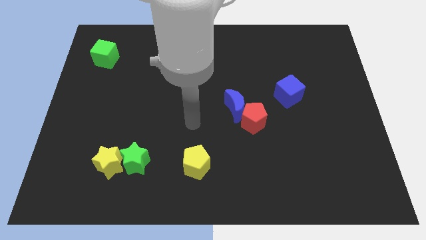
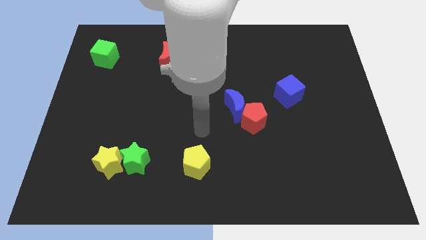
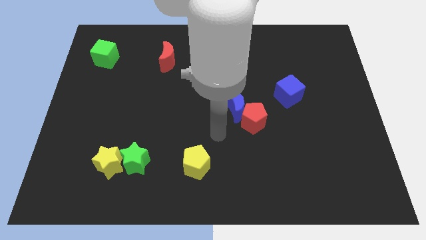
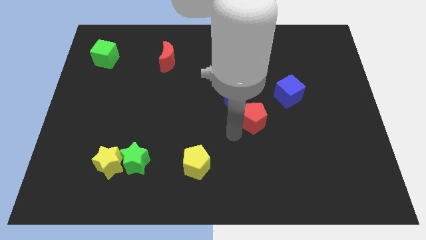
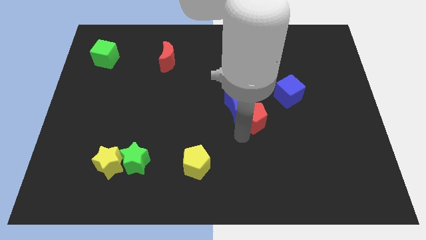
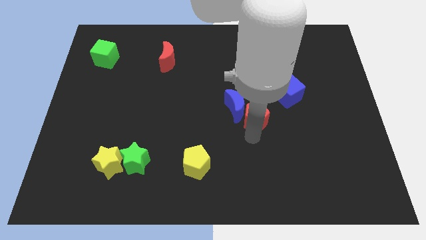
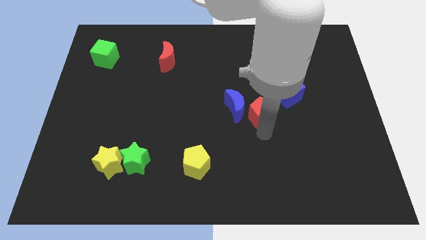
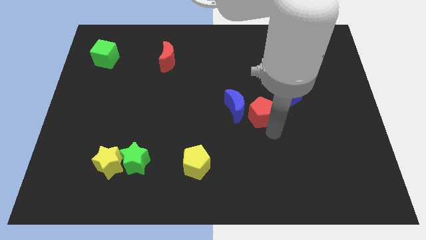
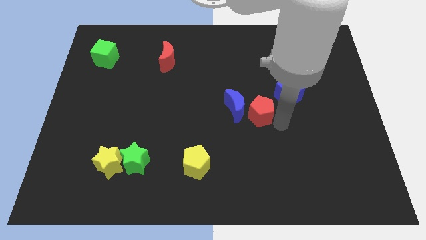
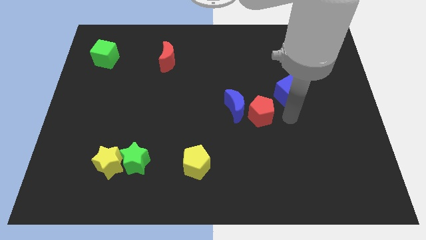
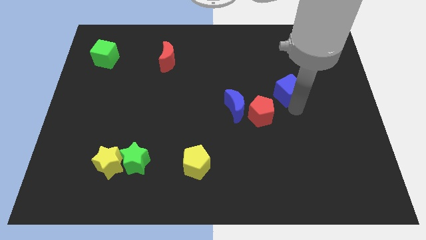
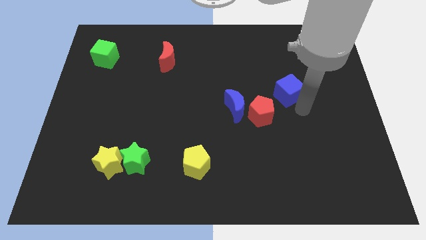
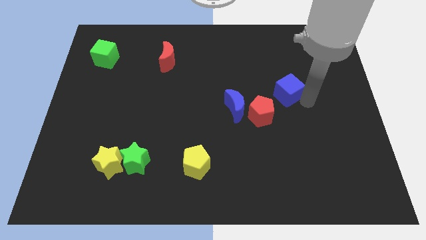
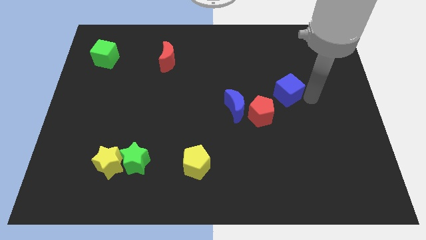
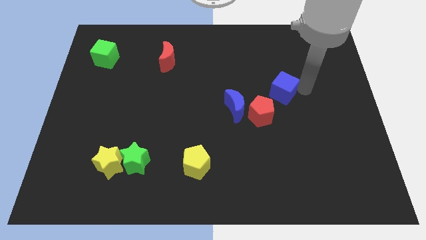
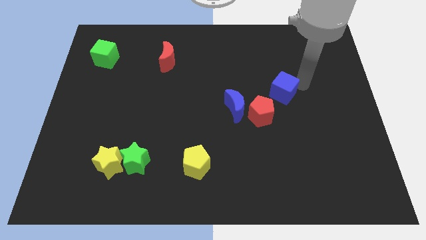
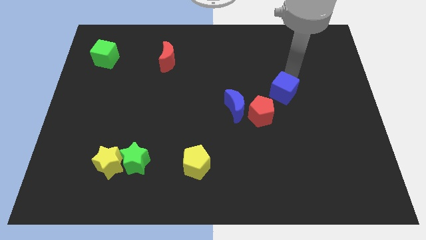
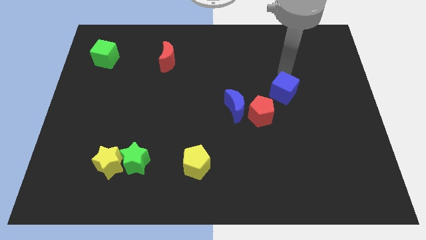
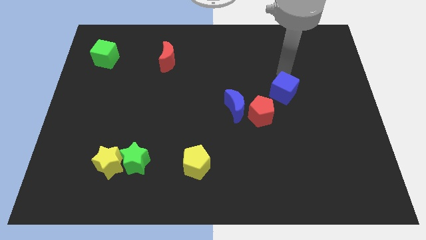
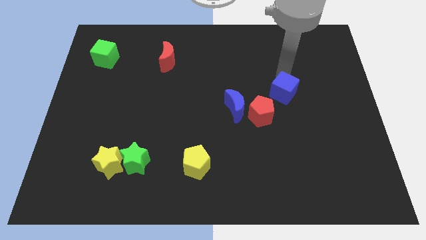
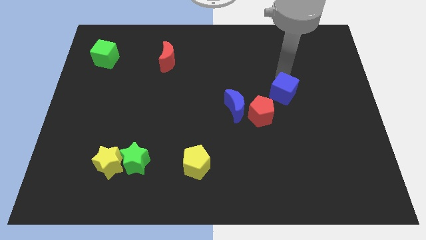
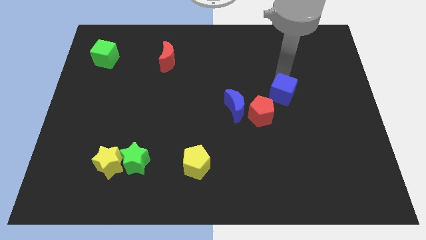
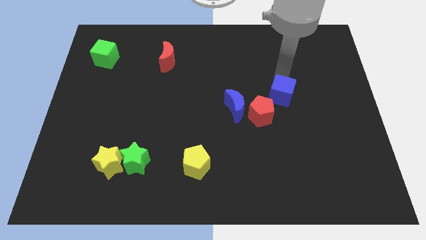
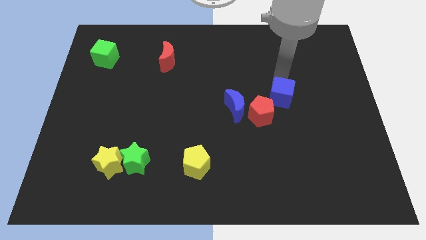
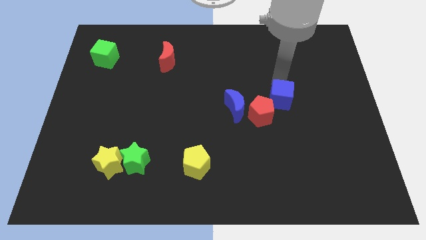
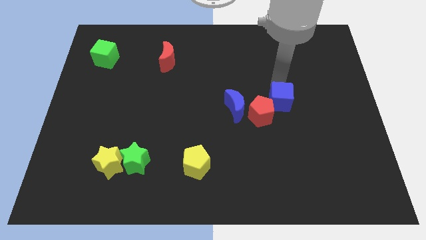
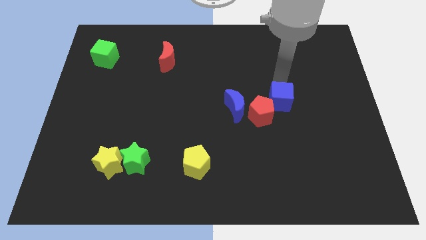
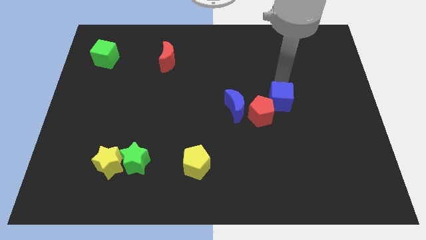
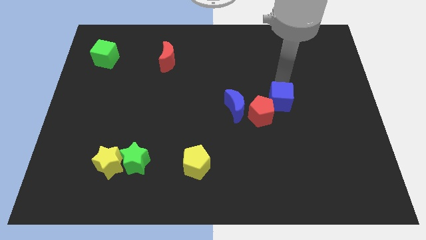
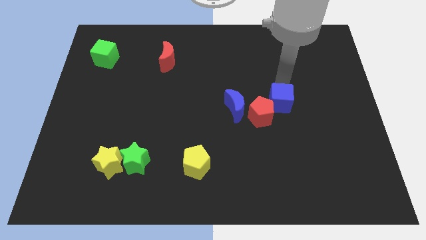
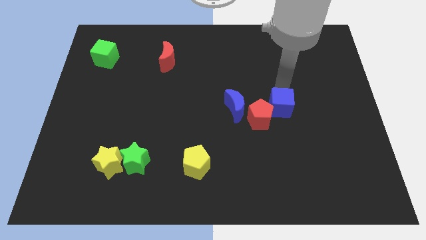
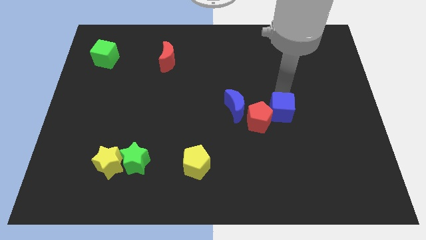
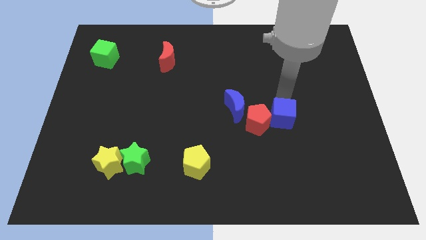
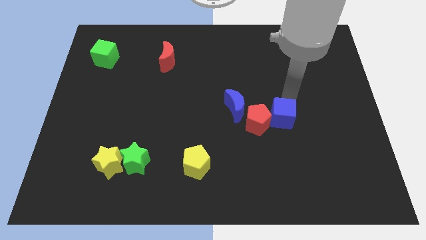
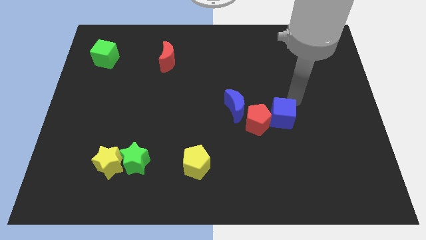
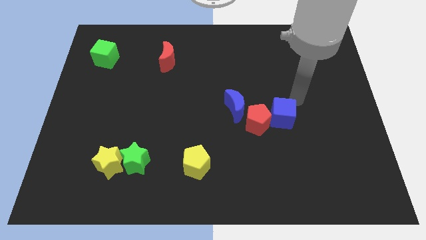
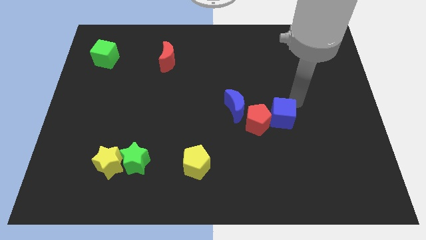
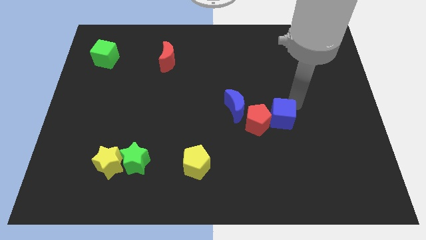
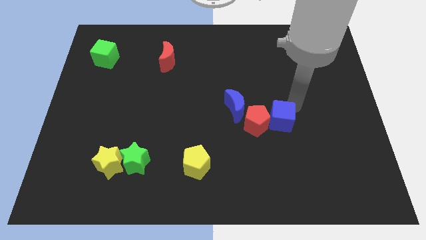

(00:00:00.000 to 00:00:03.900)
push the blue cube downwards and then to the left somewhat

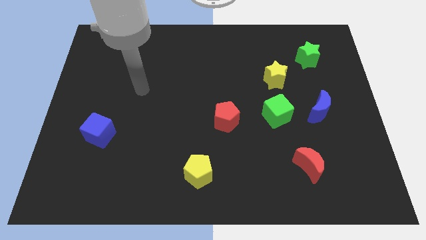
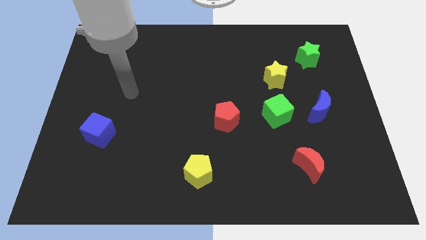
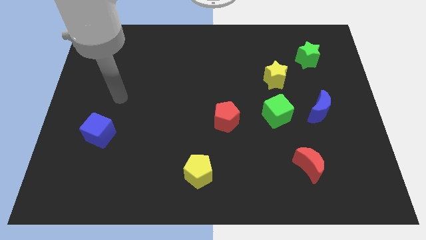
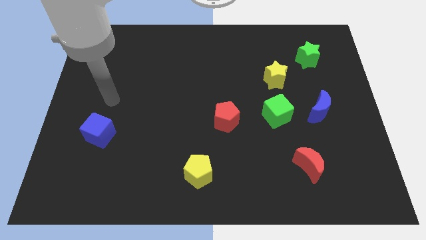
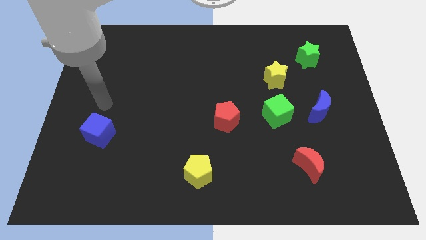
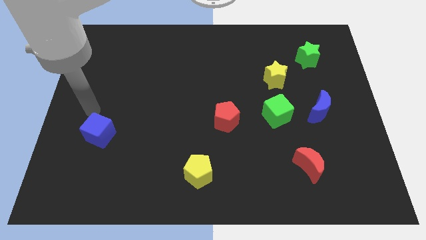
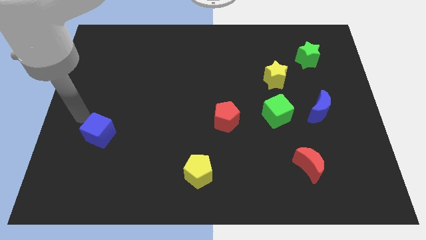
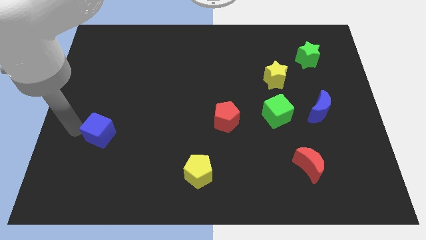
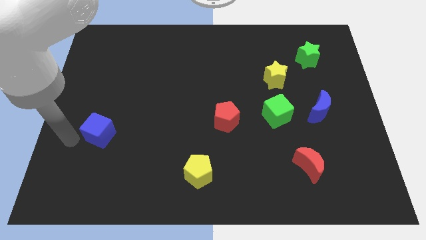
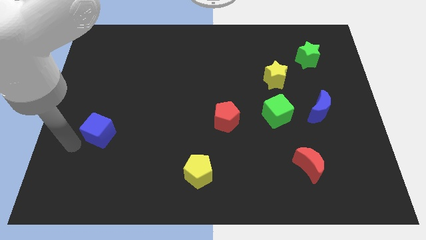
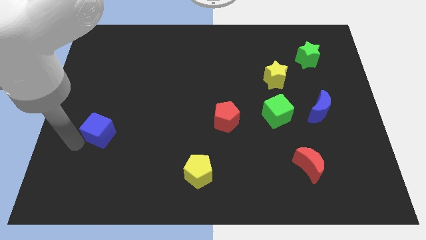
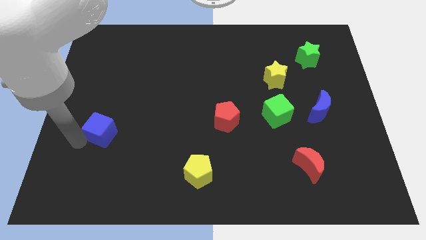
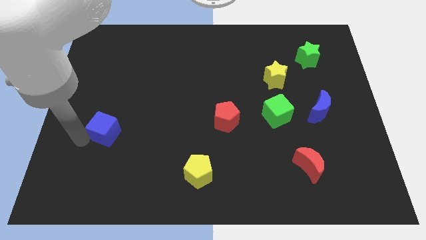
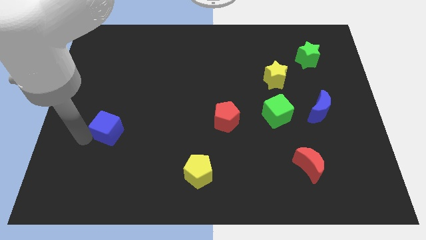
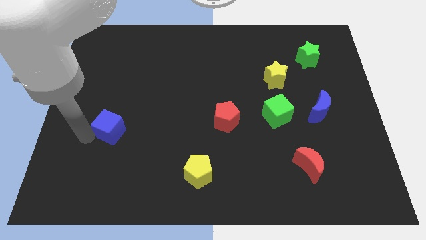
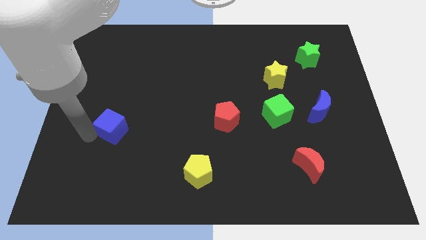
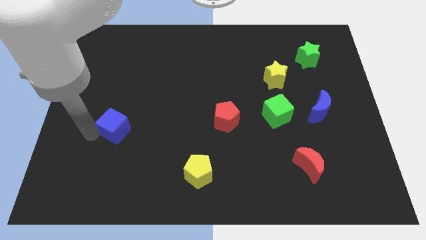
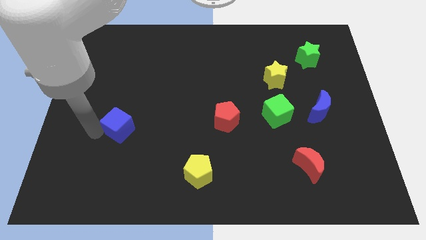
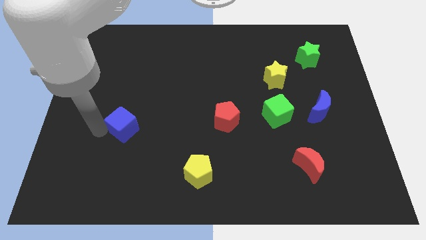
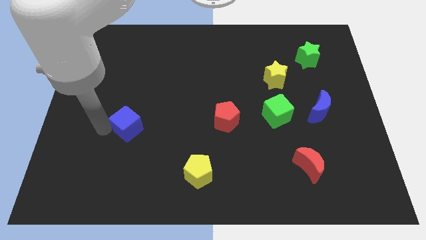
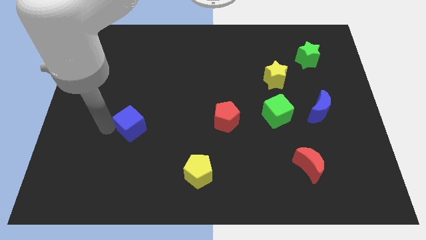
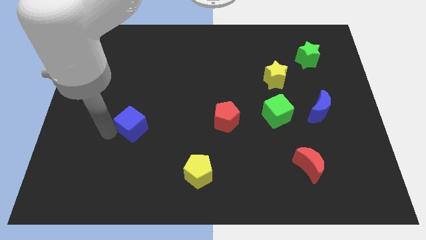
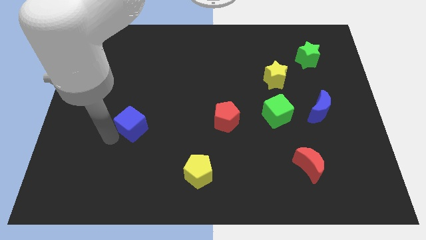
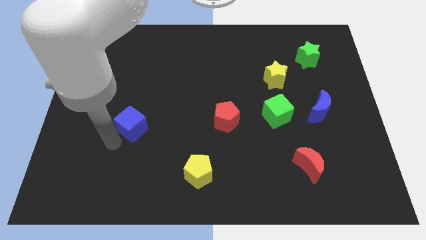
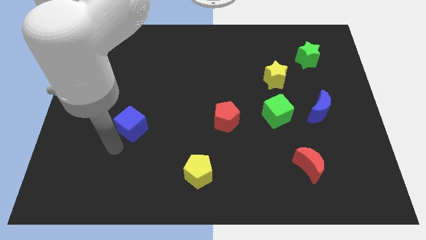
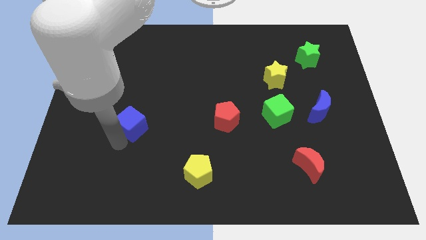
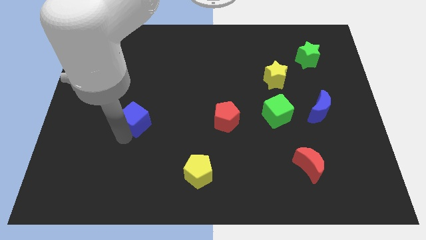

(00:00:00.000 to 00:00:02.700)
push the blue cube upwards and right somewhat

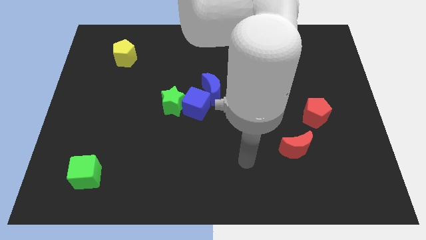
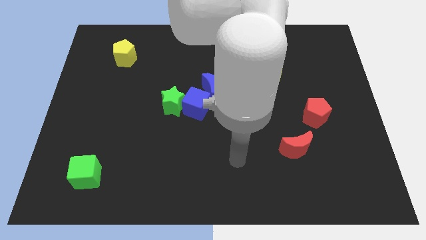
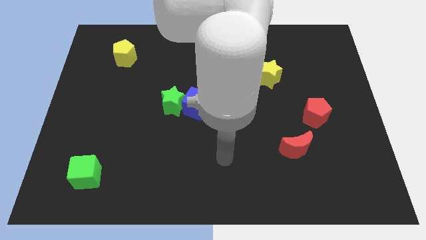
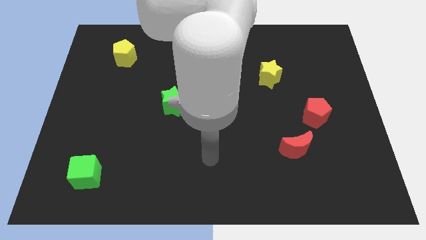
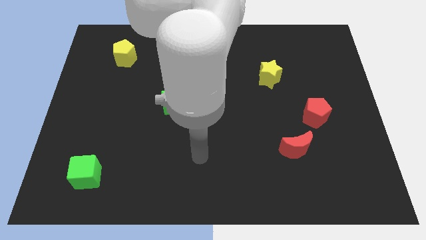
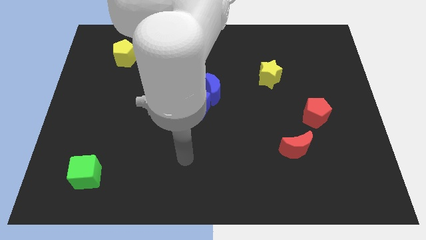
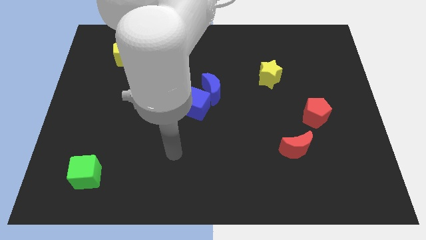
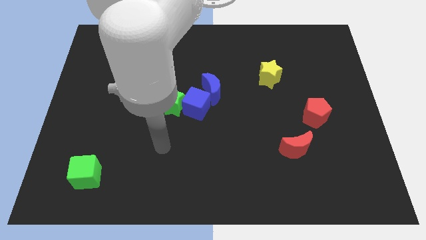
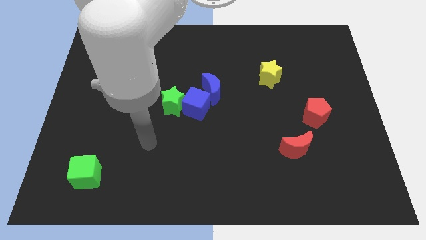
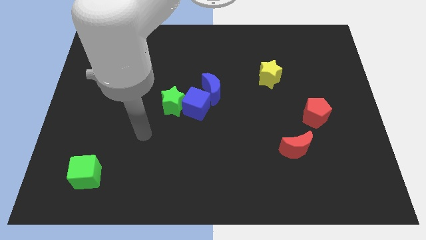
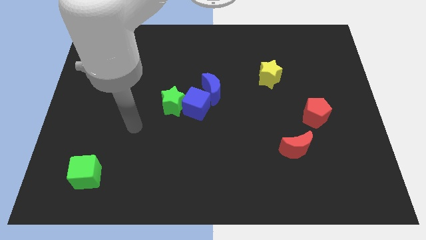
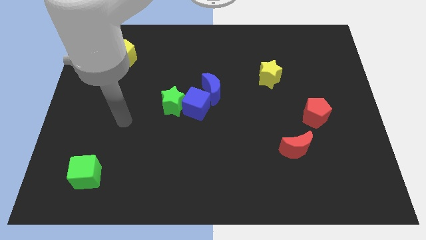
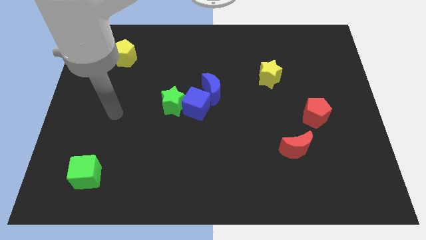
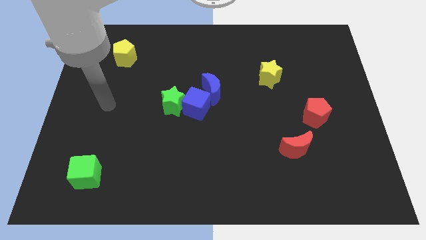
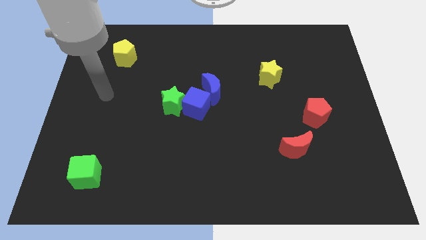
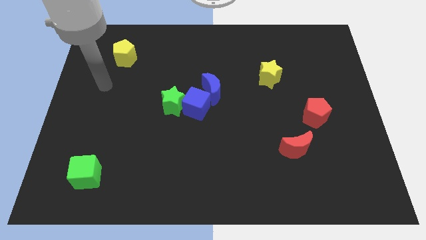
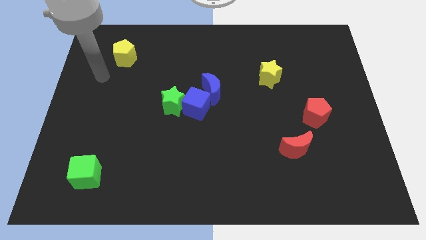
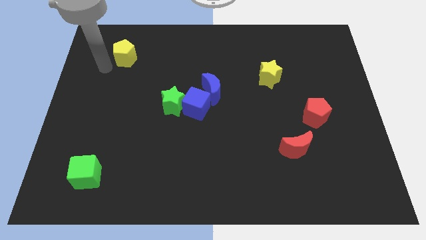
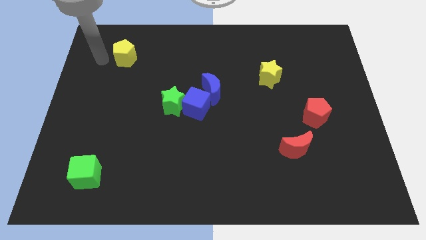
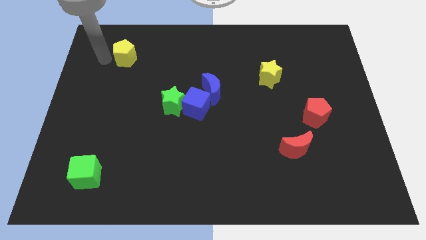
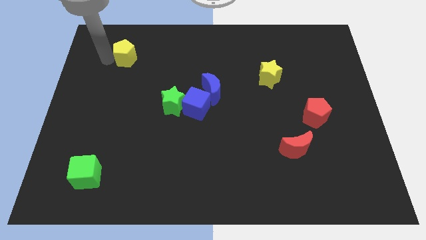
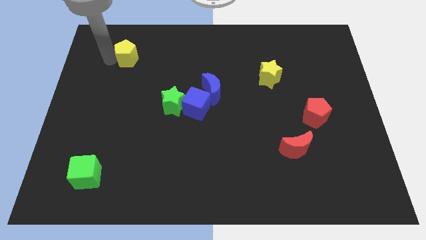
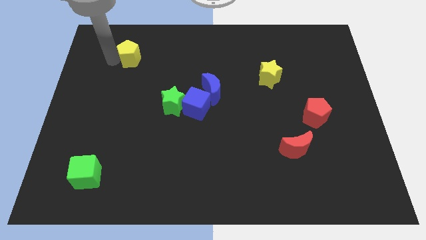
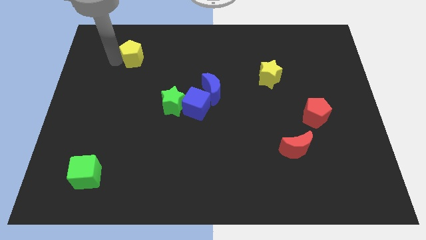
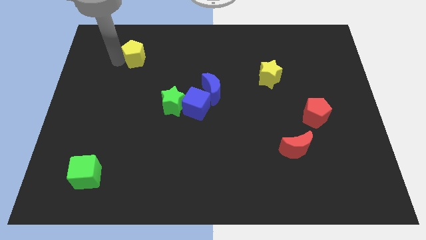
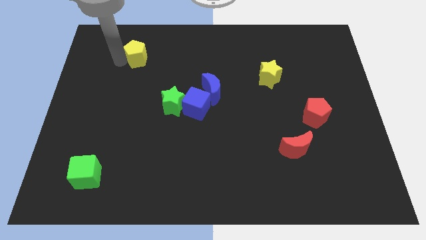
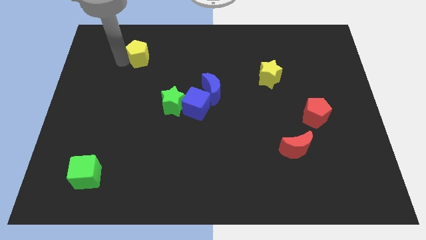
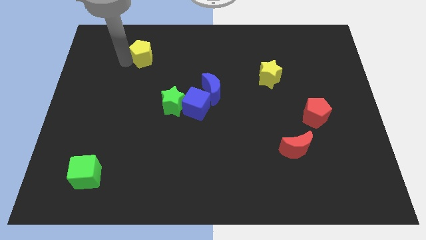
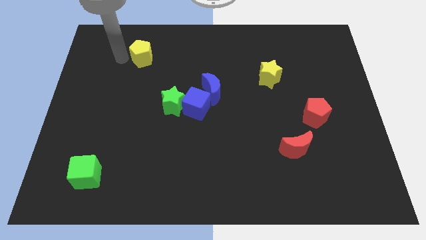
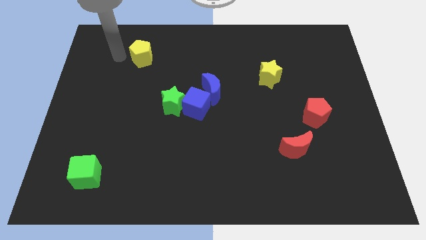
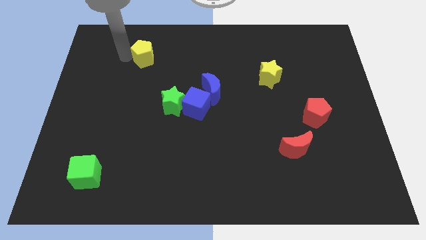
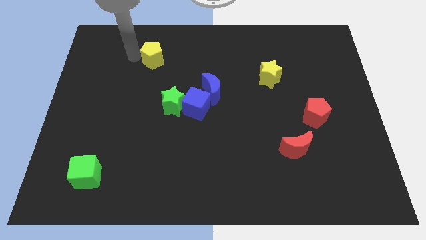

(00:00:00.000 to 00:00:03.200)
push the yellow pentagon to the right somewhat
